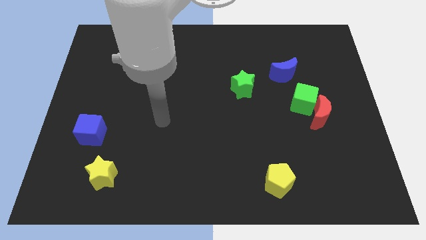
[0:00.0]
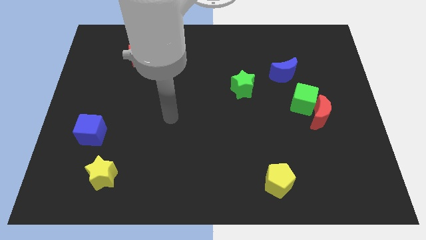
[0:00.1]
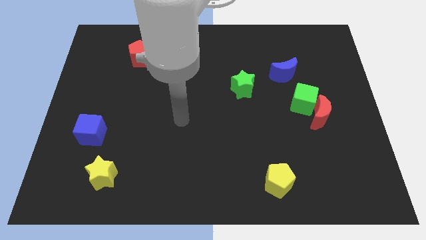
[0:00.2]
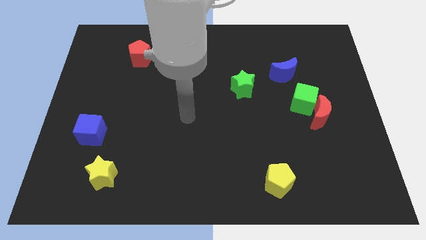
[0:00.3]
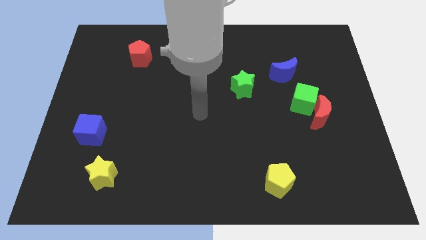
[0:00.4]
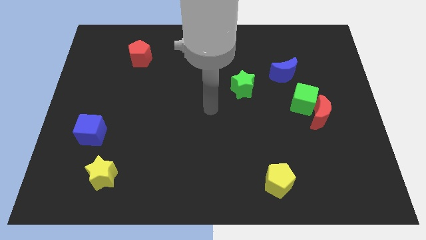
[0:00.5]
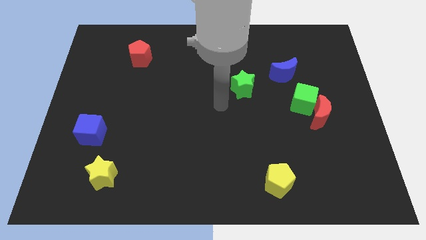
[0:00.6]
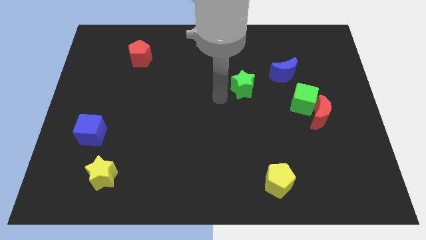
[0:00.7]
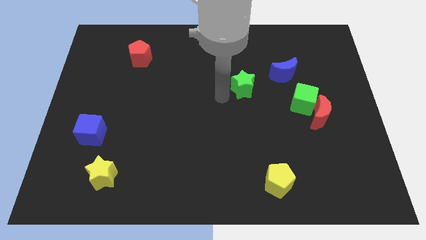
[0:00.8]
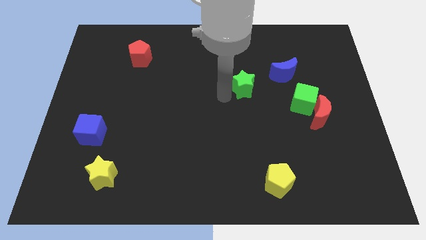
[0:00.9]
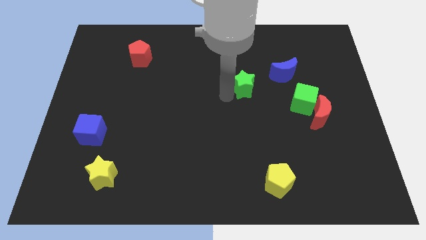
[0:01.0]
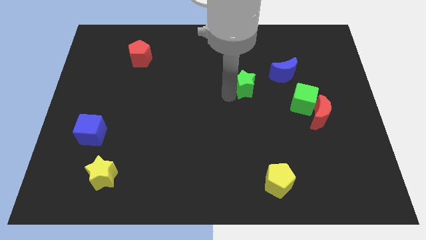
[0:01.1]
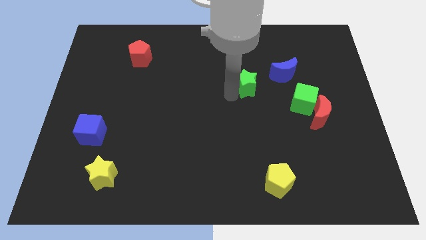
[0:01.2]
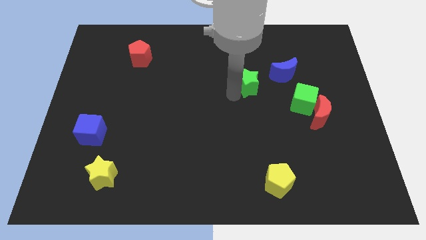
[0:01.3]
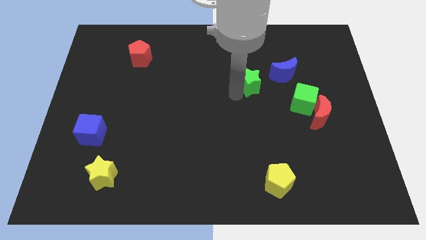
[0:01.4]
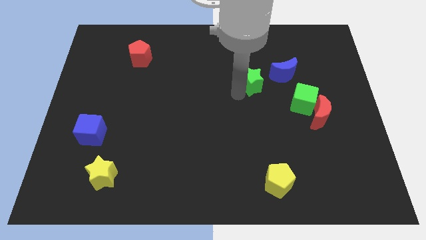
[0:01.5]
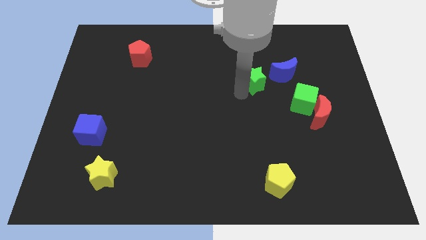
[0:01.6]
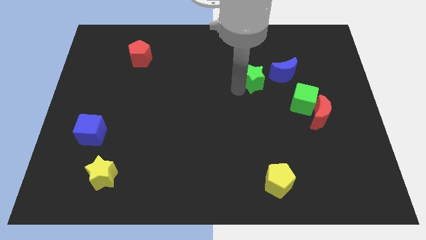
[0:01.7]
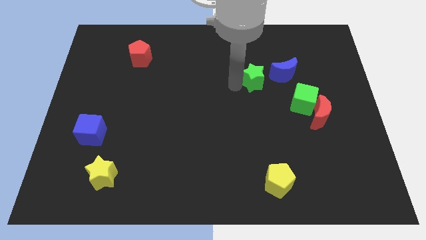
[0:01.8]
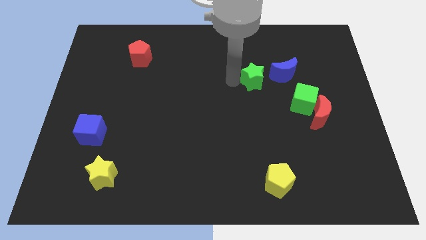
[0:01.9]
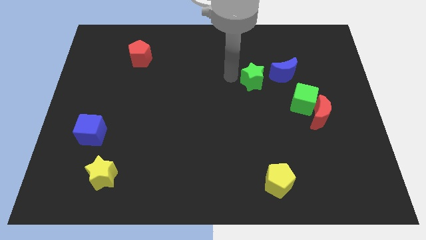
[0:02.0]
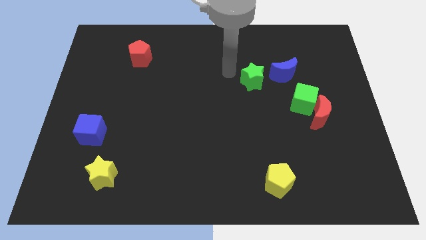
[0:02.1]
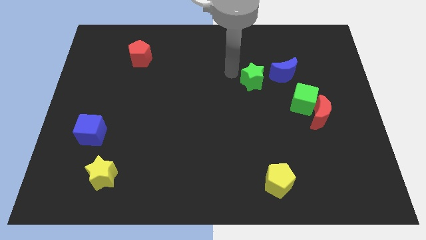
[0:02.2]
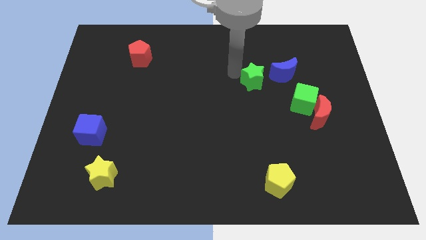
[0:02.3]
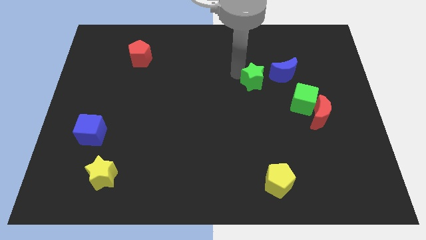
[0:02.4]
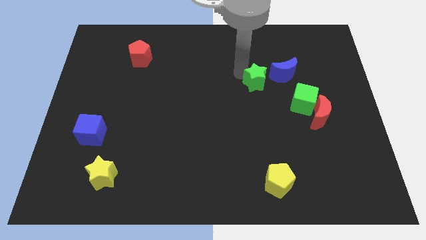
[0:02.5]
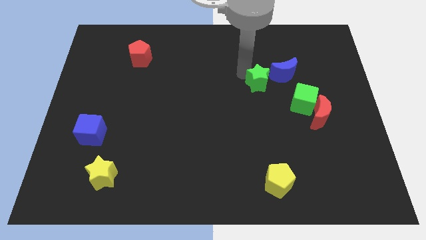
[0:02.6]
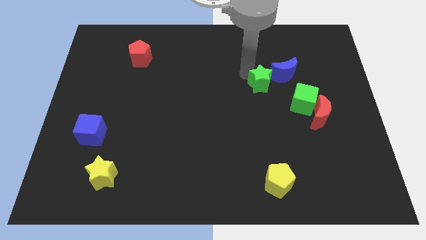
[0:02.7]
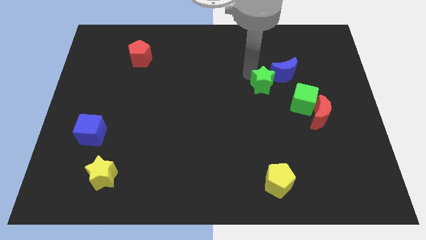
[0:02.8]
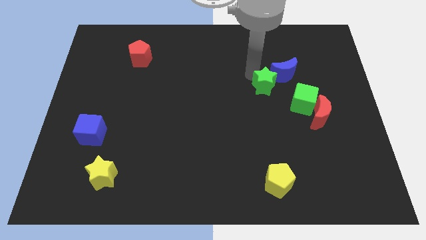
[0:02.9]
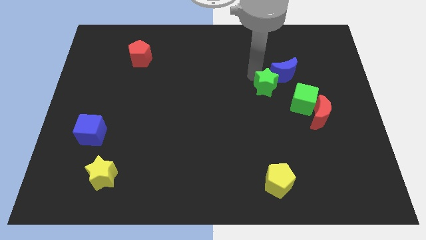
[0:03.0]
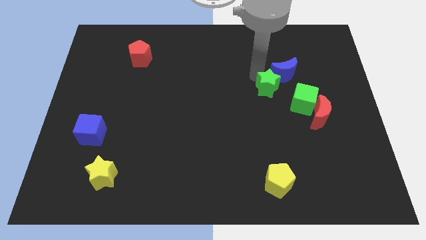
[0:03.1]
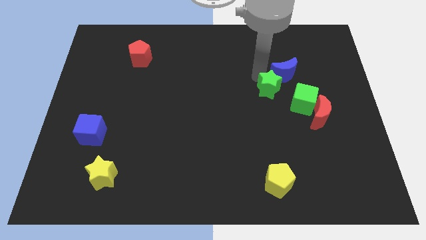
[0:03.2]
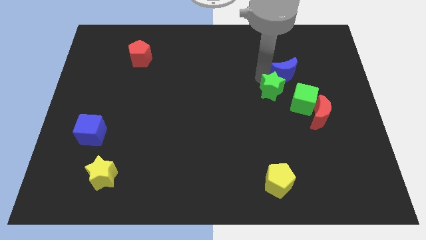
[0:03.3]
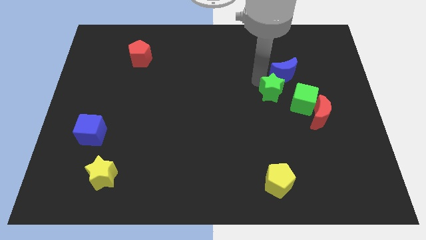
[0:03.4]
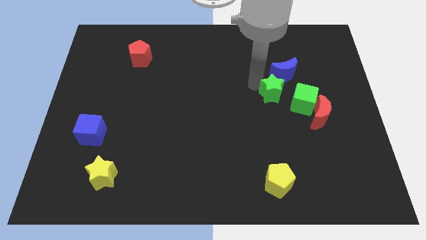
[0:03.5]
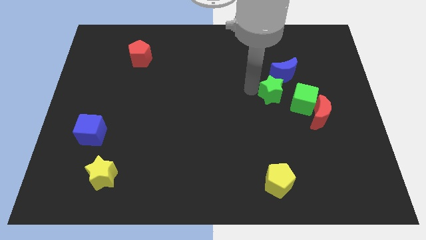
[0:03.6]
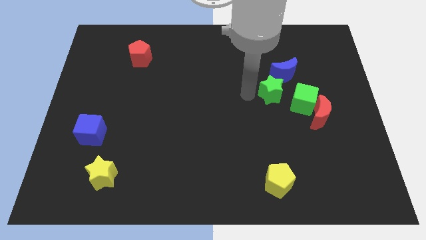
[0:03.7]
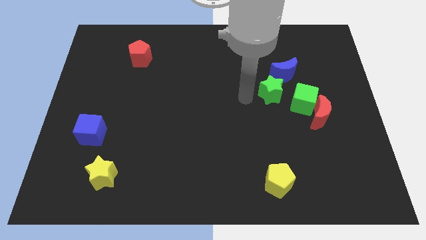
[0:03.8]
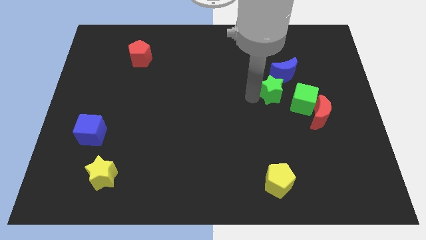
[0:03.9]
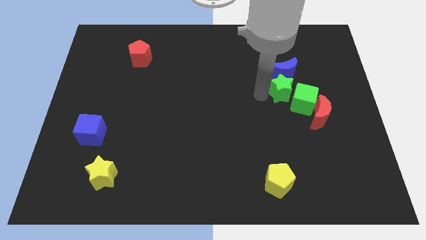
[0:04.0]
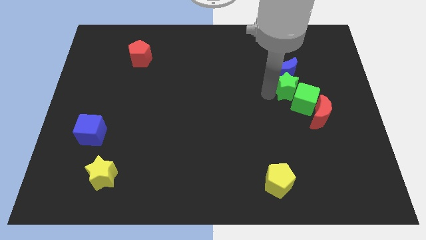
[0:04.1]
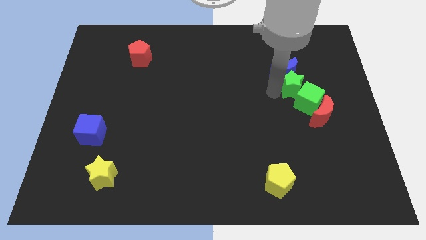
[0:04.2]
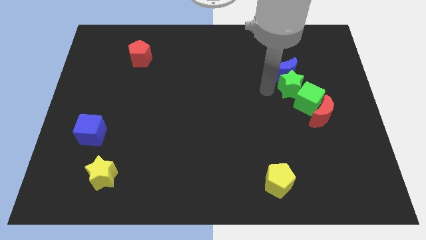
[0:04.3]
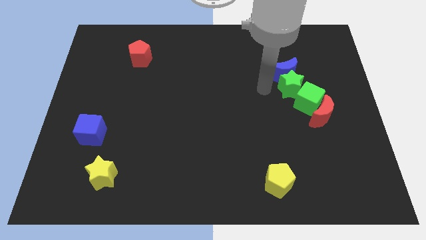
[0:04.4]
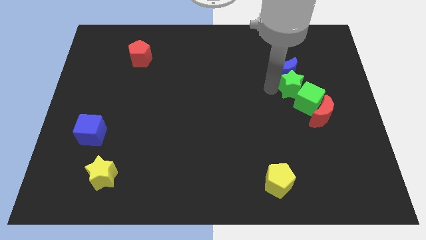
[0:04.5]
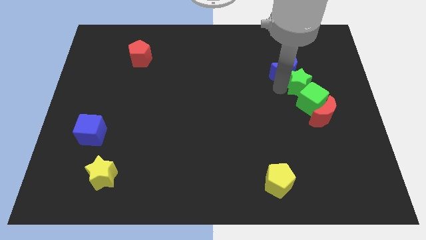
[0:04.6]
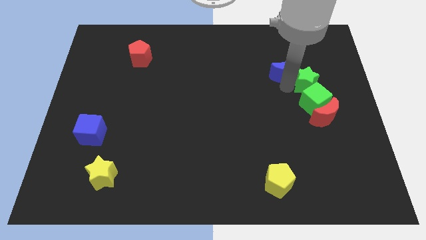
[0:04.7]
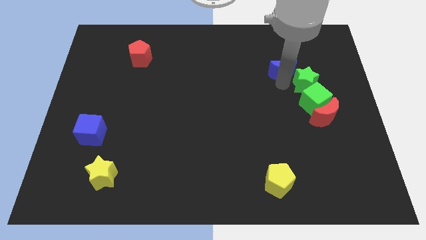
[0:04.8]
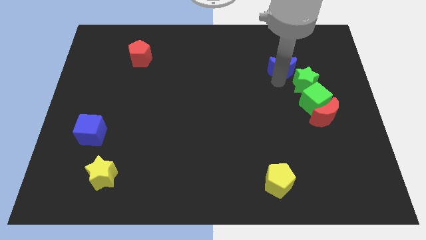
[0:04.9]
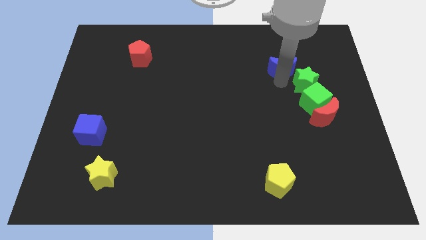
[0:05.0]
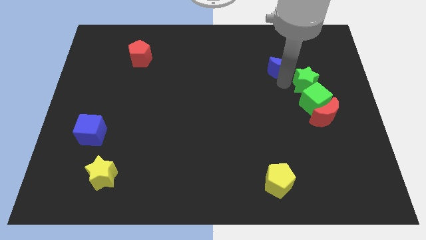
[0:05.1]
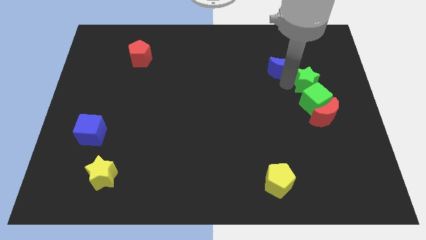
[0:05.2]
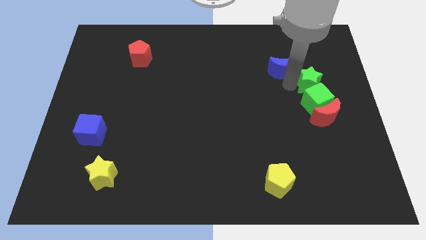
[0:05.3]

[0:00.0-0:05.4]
slide the green star to the top right of the green cube

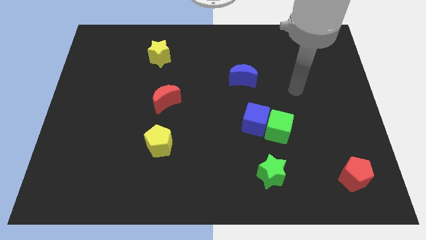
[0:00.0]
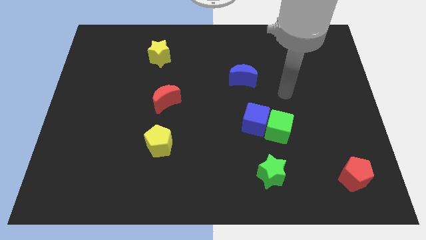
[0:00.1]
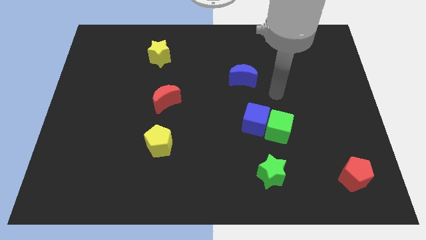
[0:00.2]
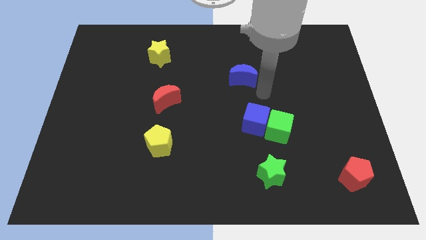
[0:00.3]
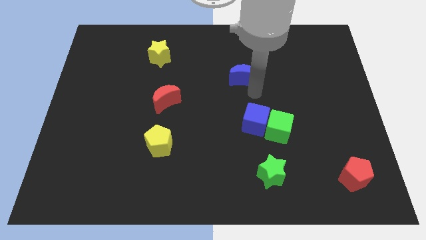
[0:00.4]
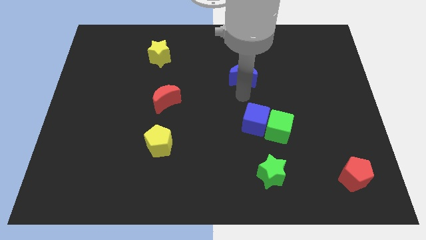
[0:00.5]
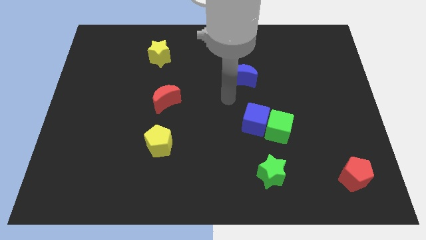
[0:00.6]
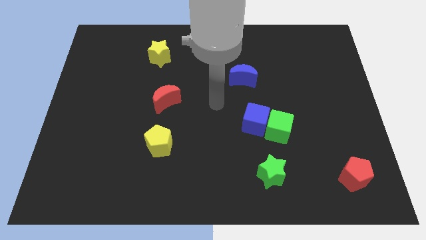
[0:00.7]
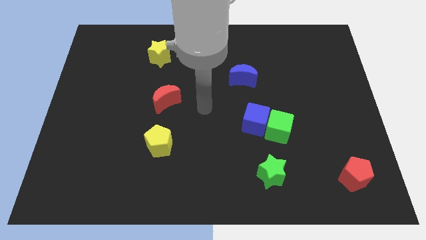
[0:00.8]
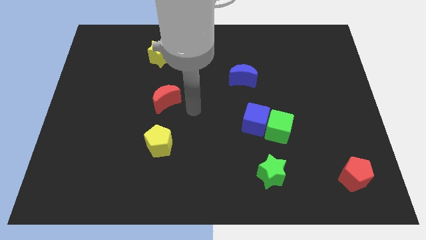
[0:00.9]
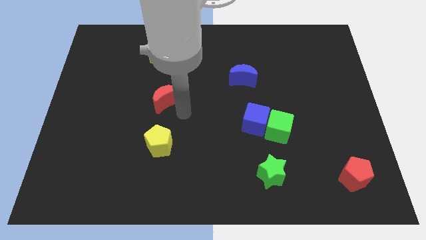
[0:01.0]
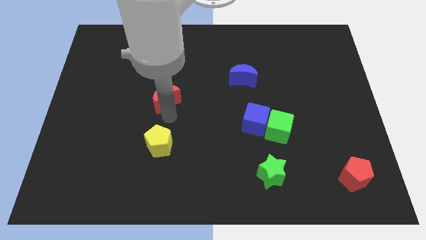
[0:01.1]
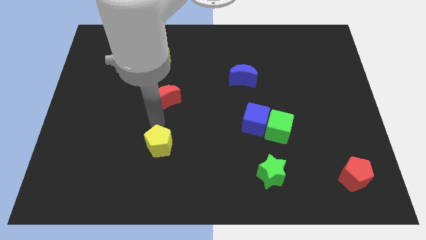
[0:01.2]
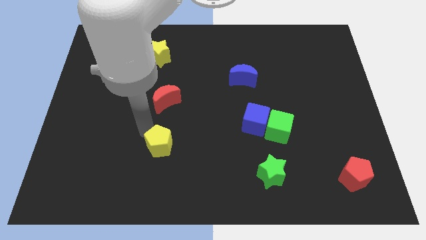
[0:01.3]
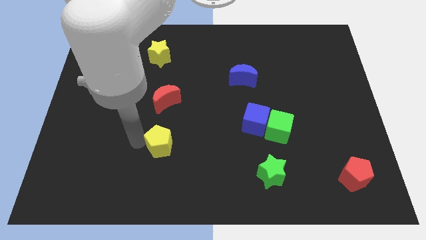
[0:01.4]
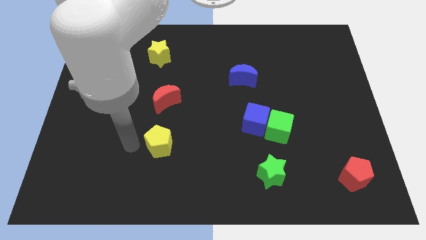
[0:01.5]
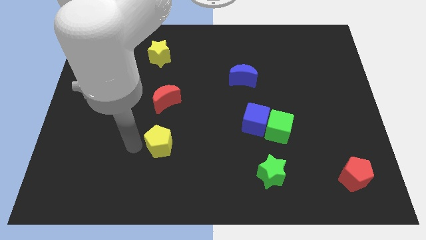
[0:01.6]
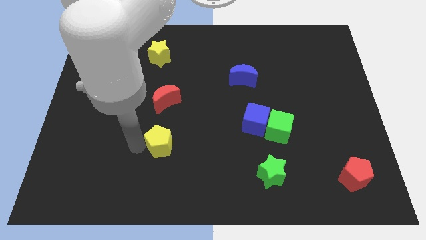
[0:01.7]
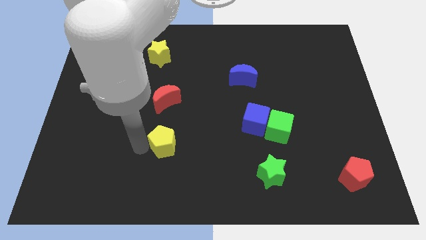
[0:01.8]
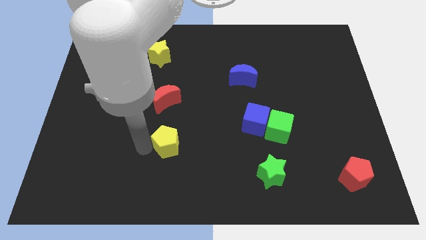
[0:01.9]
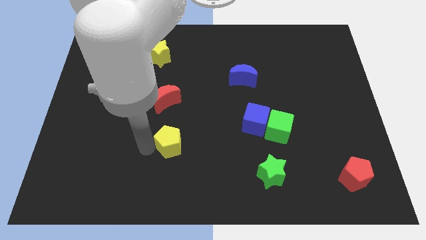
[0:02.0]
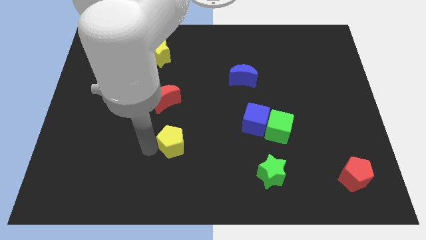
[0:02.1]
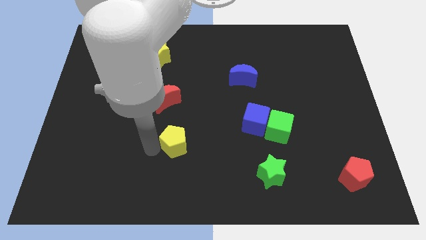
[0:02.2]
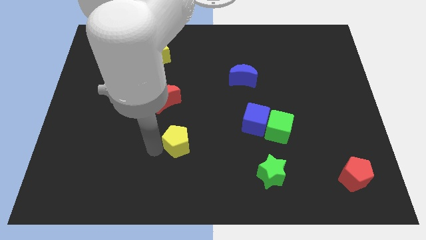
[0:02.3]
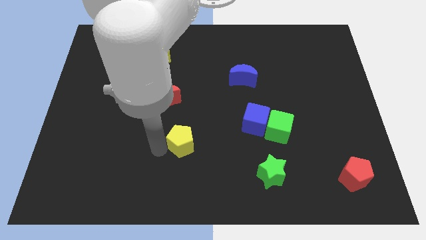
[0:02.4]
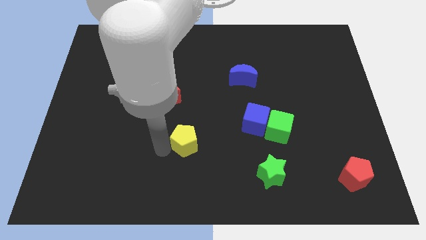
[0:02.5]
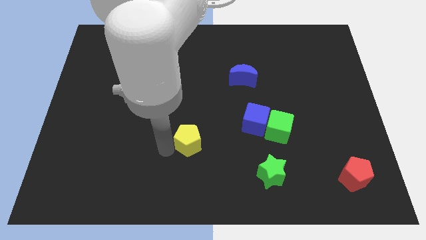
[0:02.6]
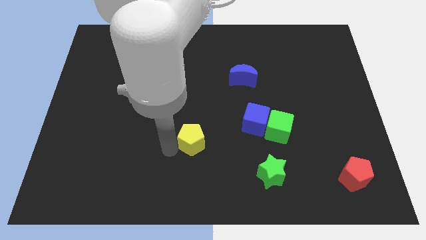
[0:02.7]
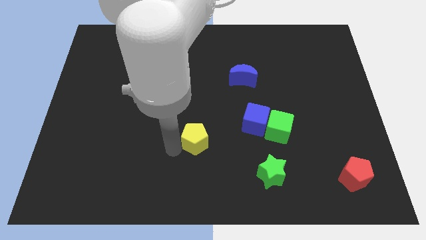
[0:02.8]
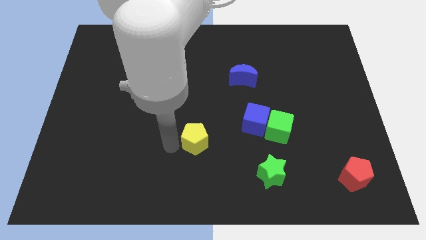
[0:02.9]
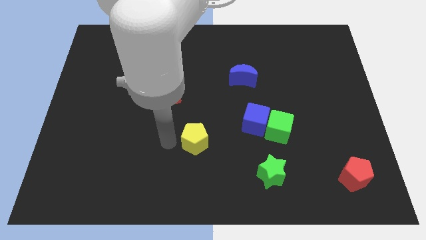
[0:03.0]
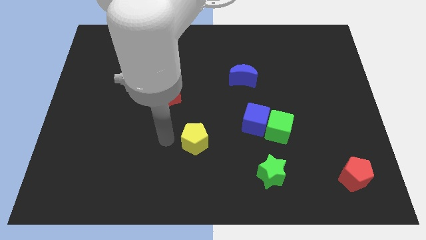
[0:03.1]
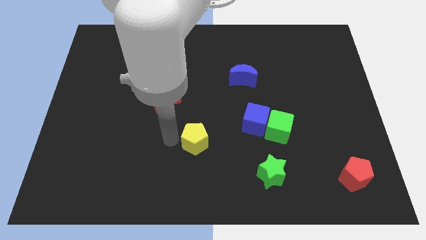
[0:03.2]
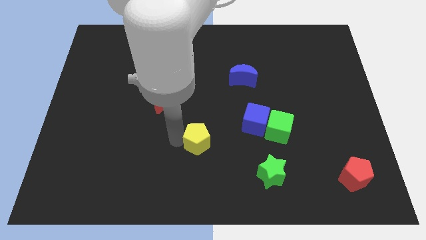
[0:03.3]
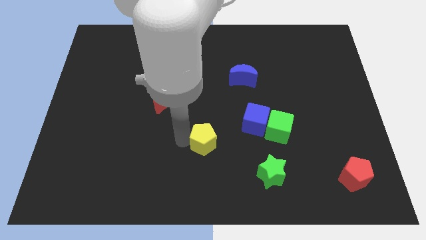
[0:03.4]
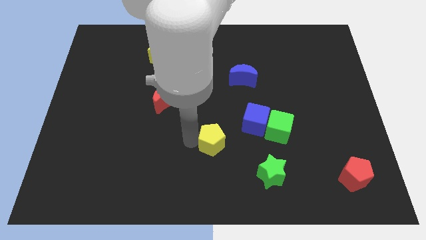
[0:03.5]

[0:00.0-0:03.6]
put the yellow pentagon to the bottom left of the blue cube
